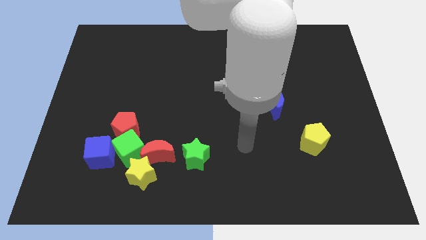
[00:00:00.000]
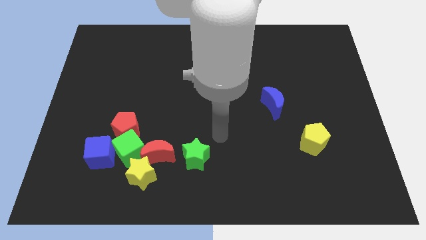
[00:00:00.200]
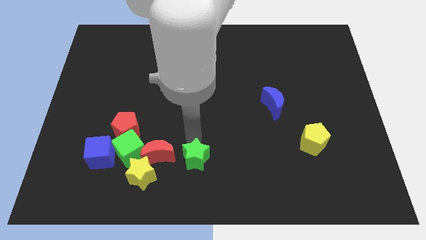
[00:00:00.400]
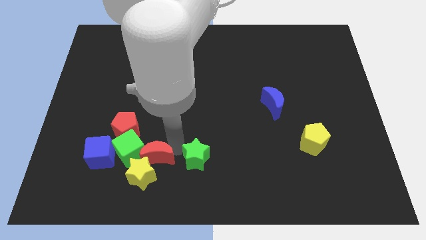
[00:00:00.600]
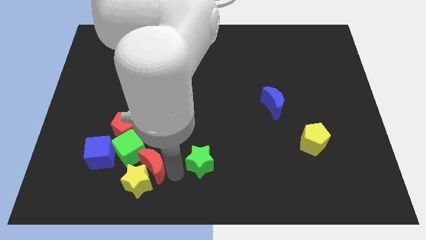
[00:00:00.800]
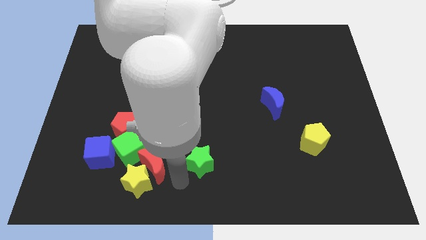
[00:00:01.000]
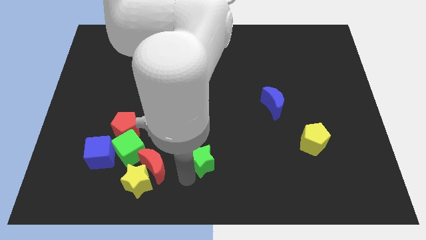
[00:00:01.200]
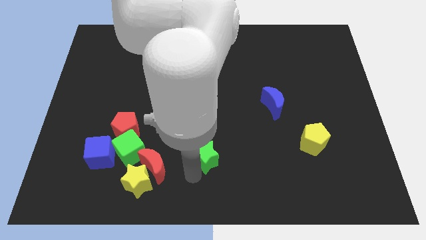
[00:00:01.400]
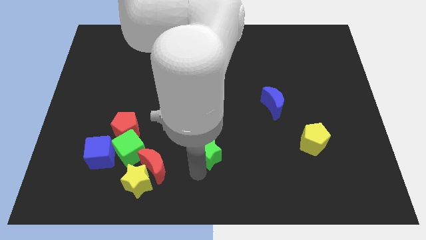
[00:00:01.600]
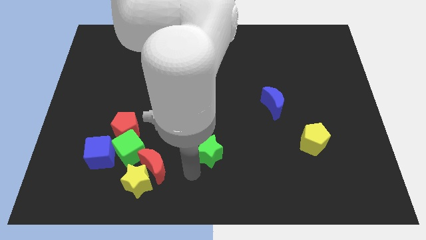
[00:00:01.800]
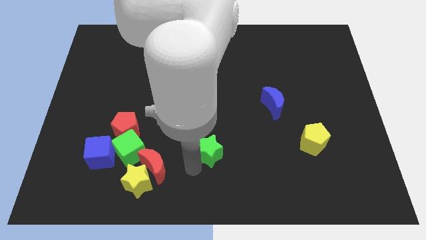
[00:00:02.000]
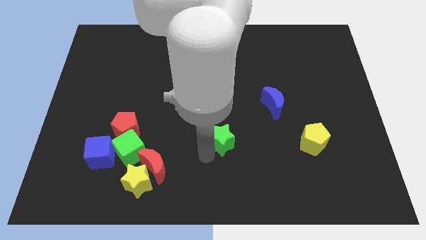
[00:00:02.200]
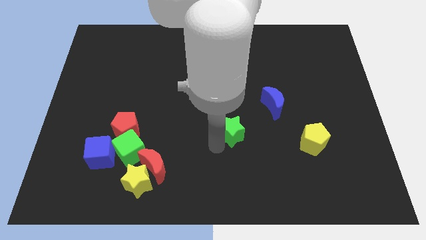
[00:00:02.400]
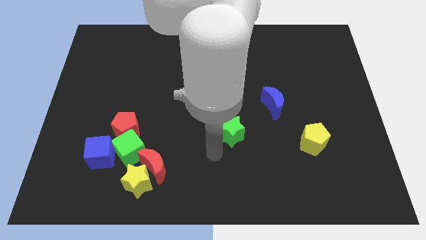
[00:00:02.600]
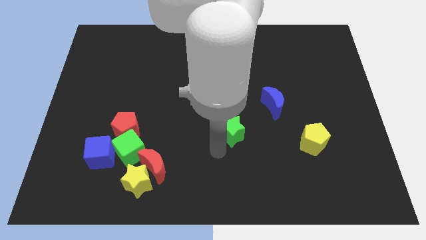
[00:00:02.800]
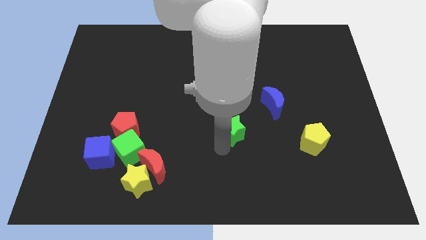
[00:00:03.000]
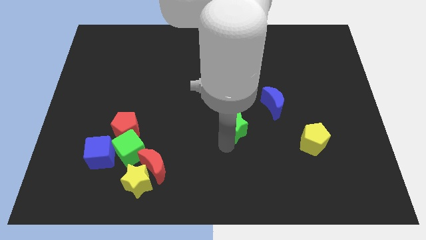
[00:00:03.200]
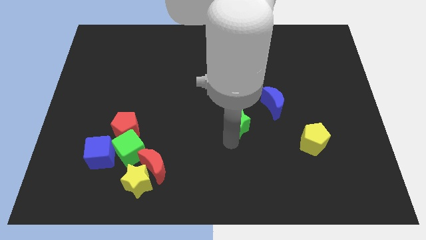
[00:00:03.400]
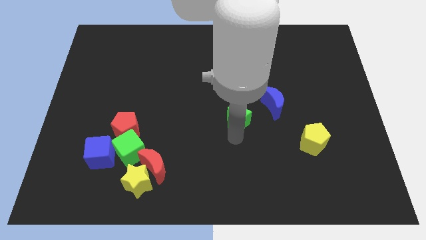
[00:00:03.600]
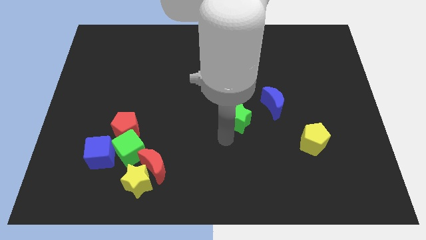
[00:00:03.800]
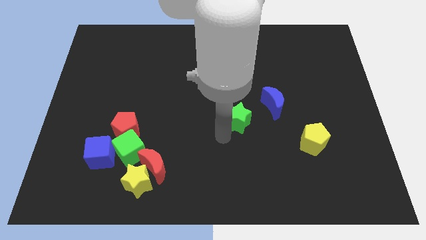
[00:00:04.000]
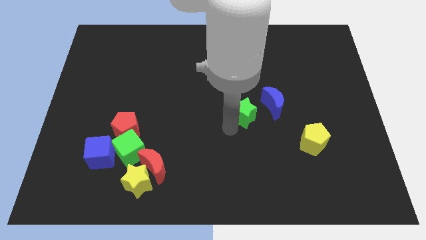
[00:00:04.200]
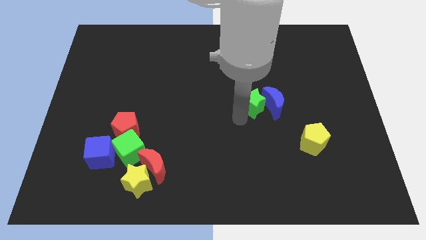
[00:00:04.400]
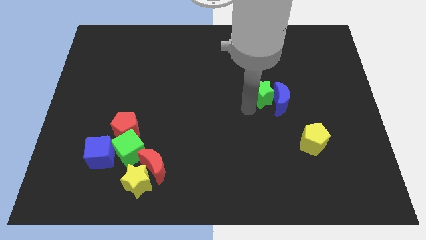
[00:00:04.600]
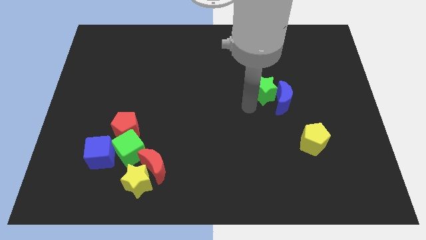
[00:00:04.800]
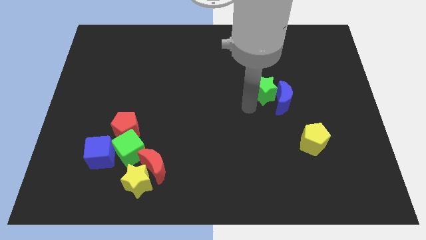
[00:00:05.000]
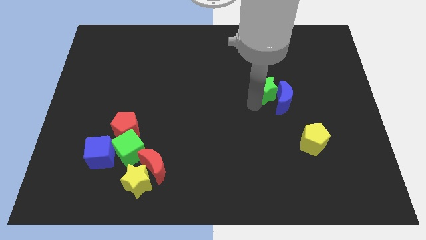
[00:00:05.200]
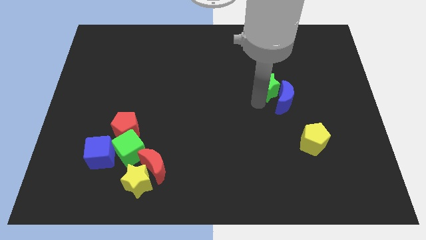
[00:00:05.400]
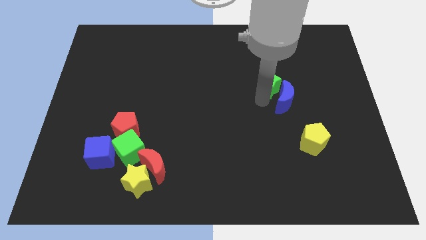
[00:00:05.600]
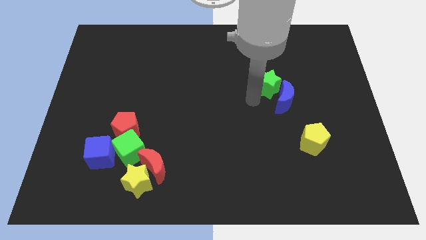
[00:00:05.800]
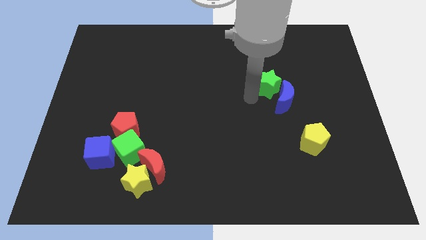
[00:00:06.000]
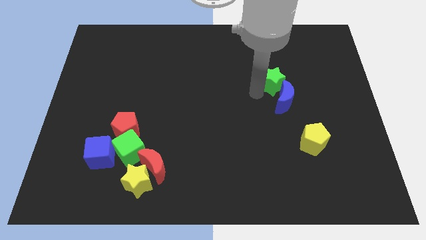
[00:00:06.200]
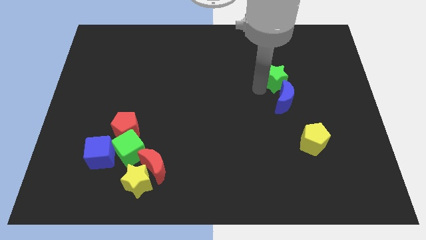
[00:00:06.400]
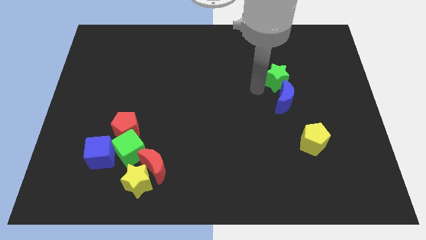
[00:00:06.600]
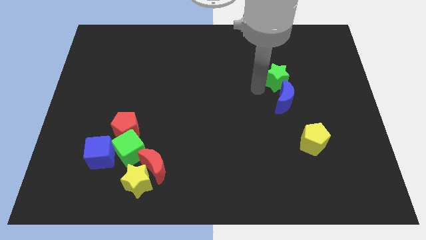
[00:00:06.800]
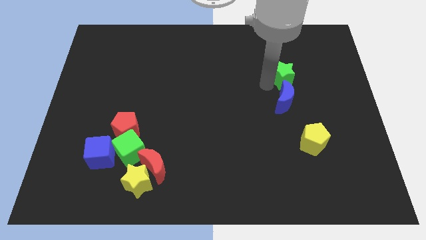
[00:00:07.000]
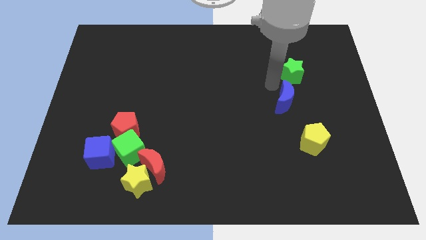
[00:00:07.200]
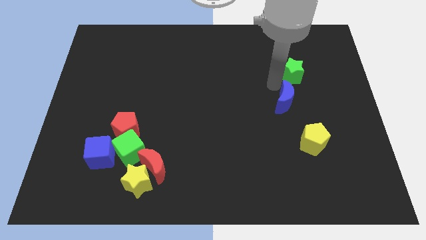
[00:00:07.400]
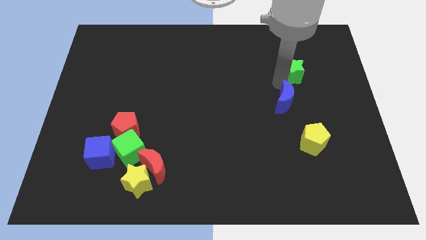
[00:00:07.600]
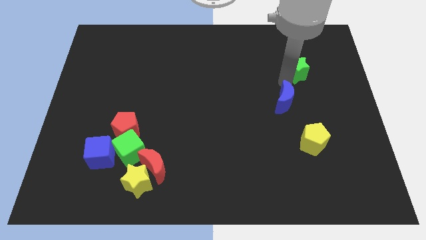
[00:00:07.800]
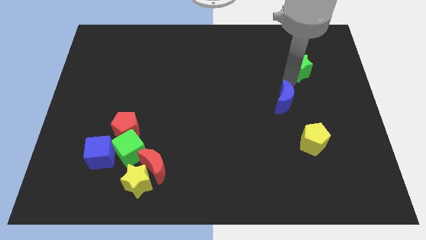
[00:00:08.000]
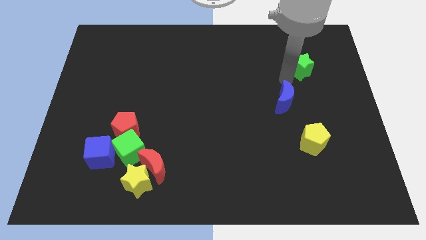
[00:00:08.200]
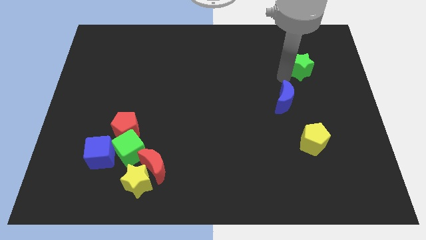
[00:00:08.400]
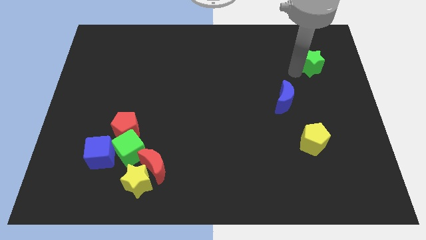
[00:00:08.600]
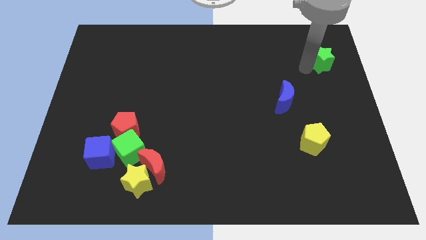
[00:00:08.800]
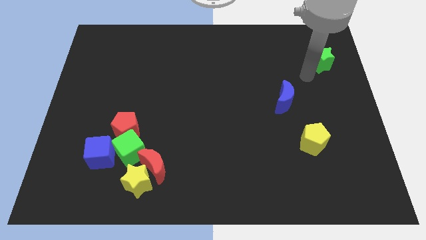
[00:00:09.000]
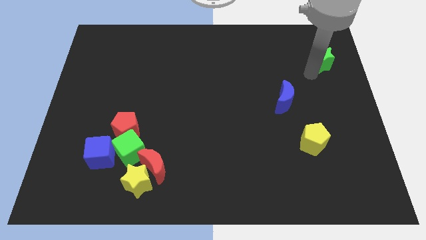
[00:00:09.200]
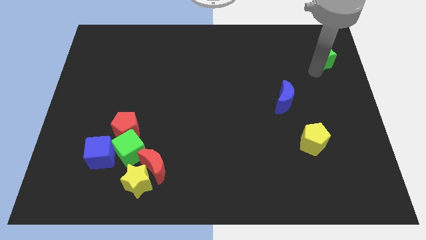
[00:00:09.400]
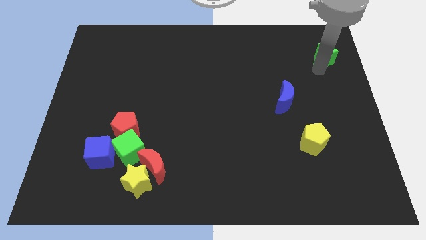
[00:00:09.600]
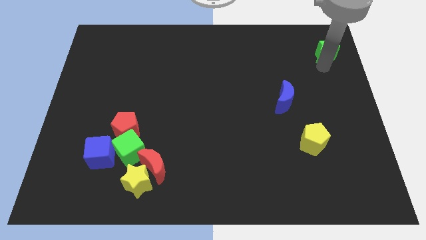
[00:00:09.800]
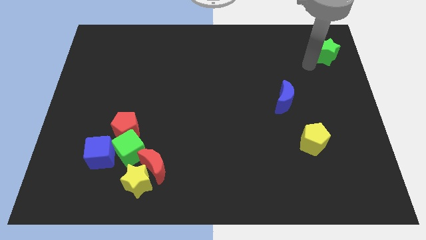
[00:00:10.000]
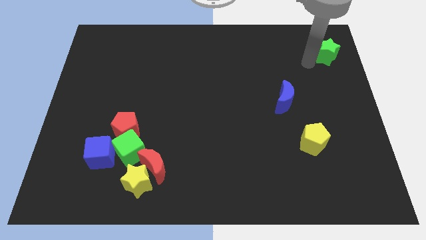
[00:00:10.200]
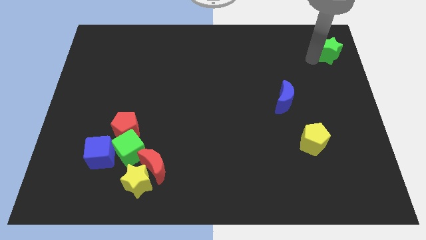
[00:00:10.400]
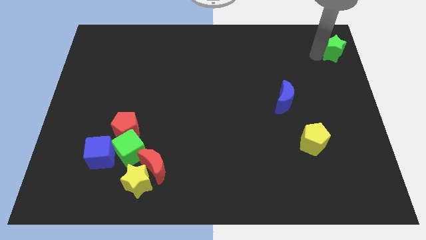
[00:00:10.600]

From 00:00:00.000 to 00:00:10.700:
push the green star to the top right

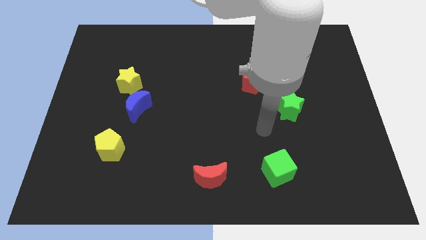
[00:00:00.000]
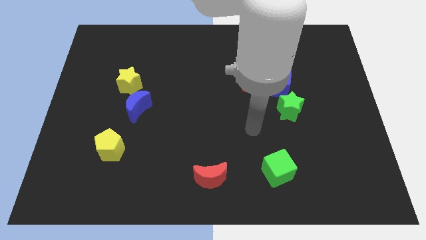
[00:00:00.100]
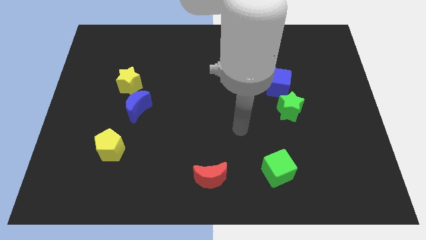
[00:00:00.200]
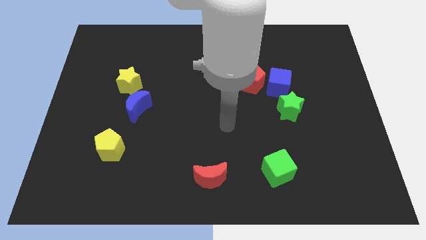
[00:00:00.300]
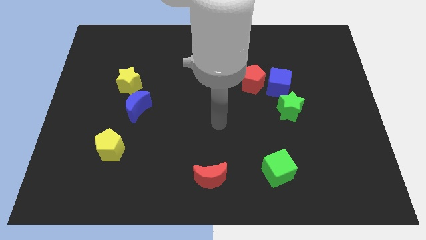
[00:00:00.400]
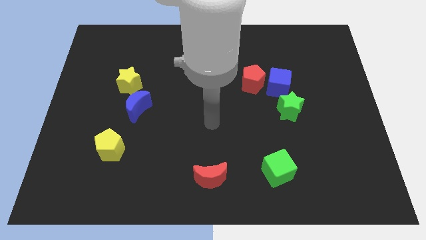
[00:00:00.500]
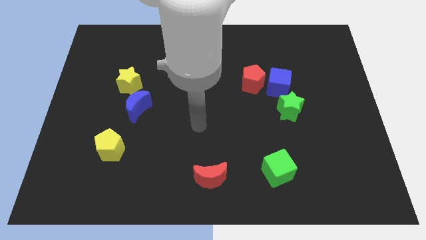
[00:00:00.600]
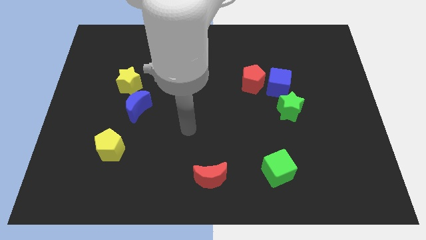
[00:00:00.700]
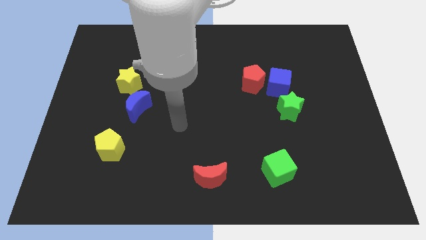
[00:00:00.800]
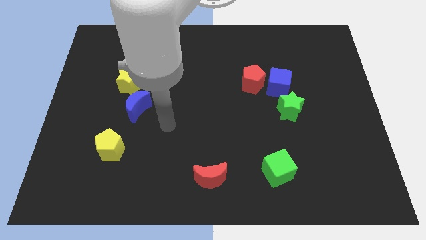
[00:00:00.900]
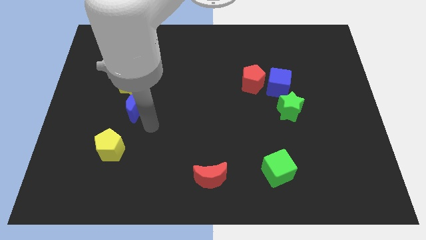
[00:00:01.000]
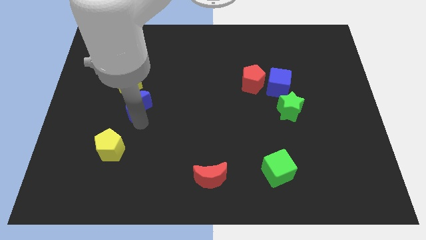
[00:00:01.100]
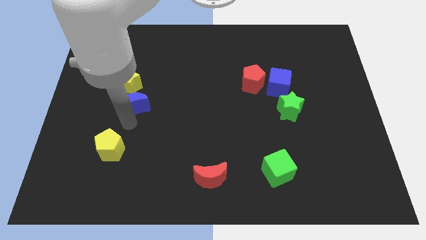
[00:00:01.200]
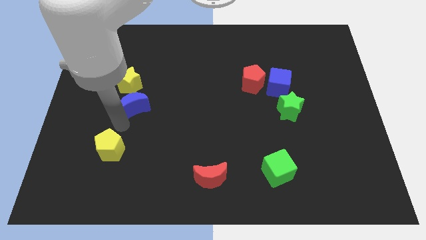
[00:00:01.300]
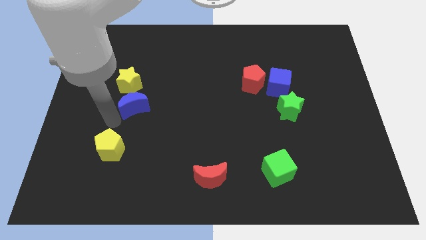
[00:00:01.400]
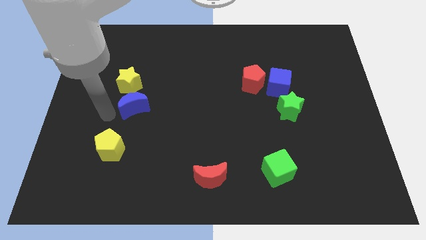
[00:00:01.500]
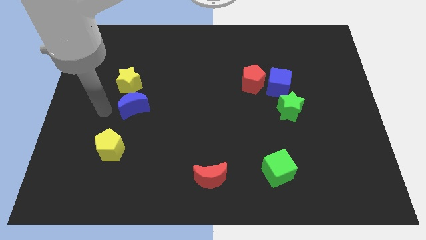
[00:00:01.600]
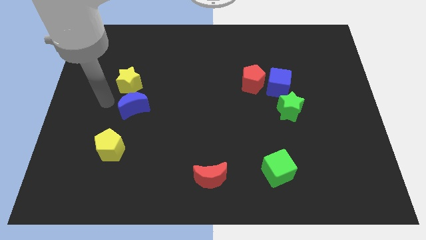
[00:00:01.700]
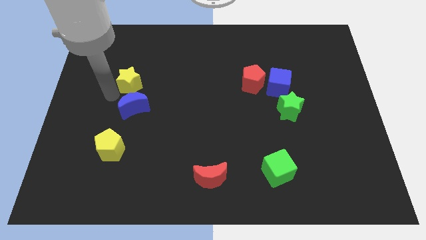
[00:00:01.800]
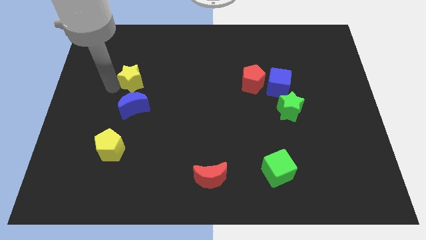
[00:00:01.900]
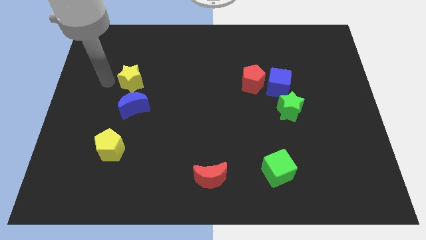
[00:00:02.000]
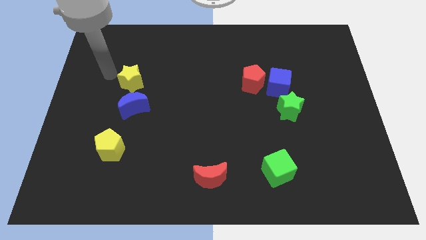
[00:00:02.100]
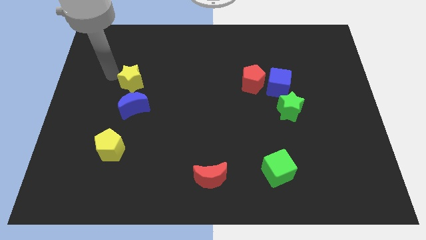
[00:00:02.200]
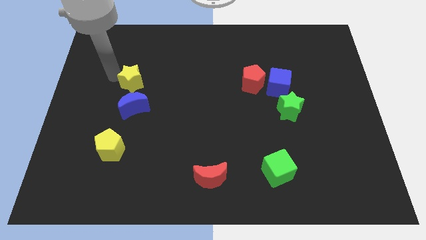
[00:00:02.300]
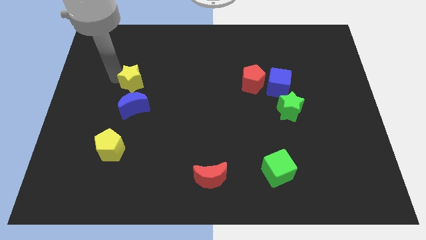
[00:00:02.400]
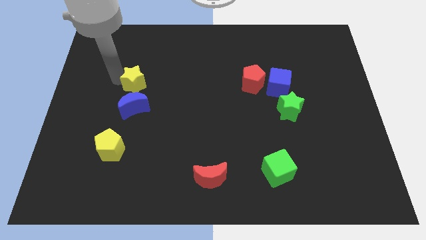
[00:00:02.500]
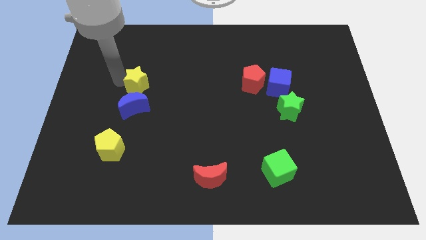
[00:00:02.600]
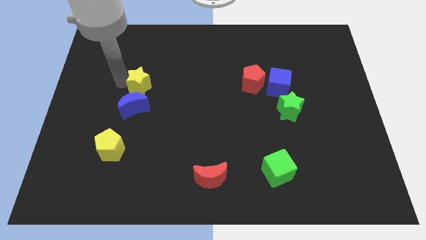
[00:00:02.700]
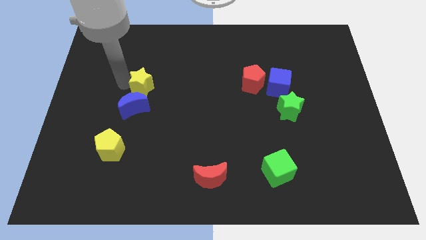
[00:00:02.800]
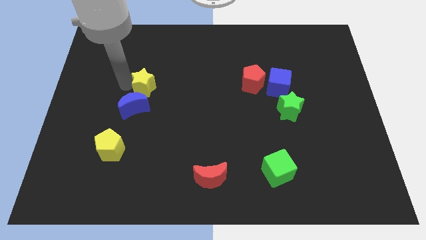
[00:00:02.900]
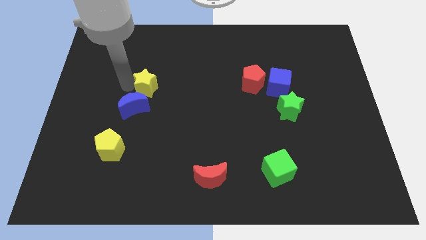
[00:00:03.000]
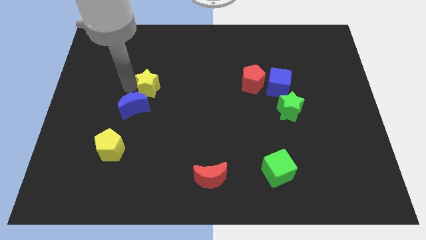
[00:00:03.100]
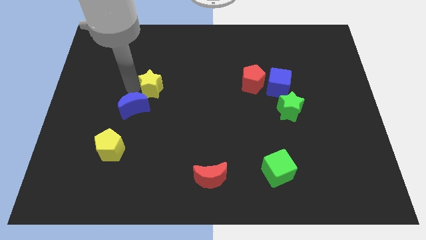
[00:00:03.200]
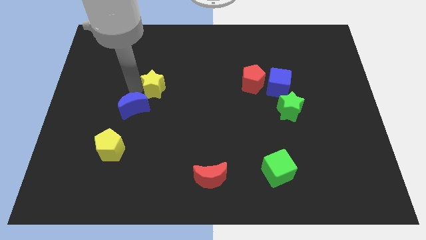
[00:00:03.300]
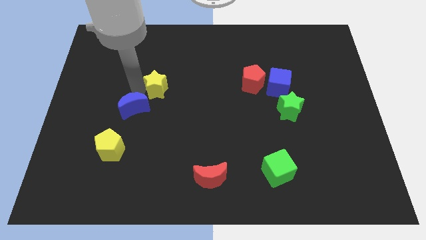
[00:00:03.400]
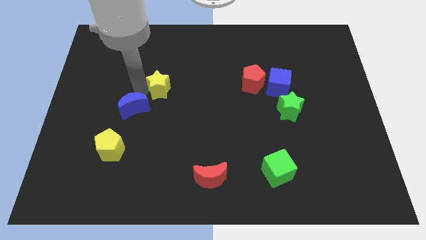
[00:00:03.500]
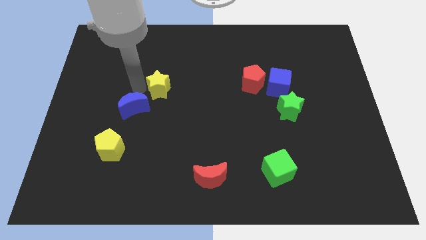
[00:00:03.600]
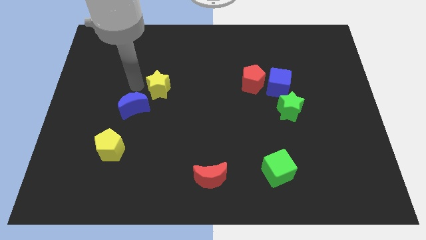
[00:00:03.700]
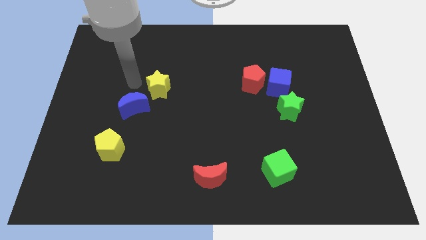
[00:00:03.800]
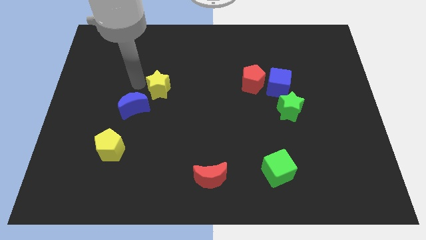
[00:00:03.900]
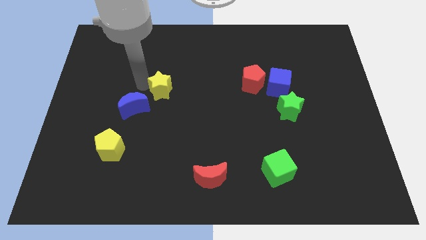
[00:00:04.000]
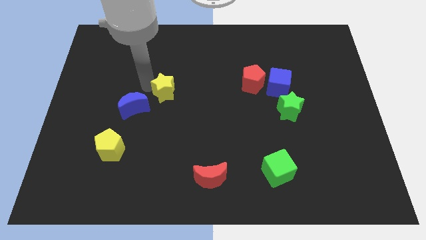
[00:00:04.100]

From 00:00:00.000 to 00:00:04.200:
slide the yellow star to the center of the board
